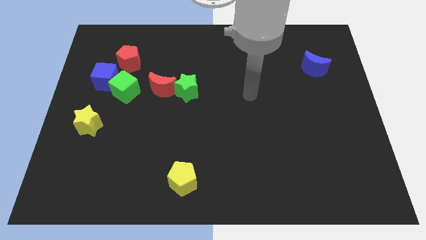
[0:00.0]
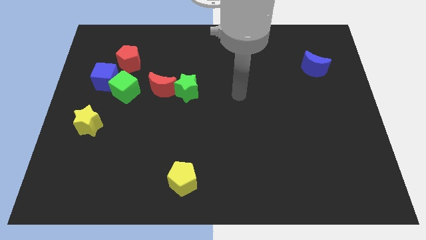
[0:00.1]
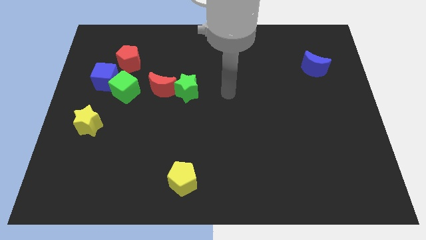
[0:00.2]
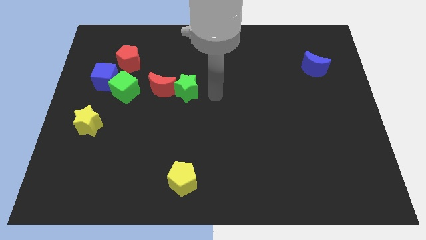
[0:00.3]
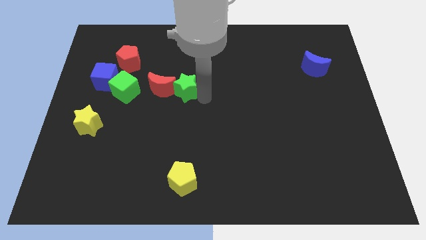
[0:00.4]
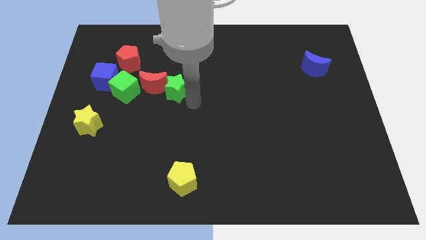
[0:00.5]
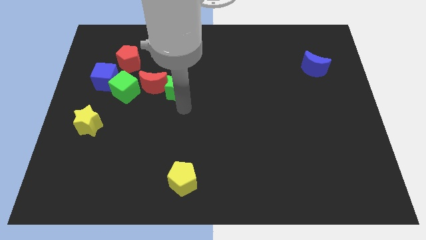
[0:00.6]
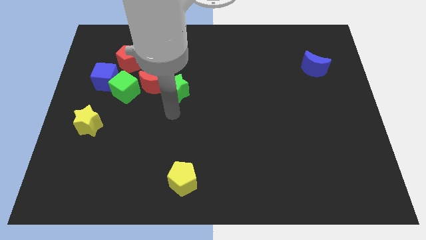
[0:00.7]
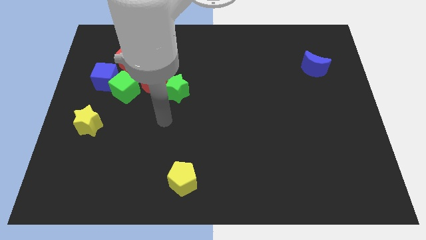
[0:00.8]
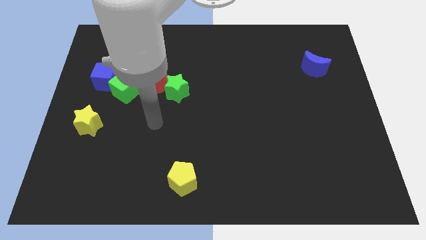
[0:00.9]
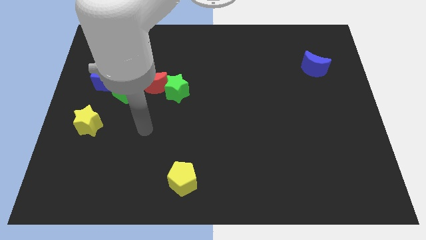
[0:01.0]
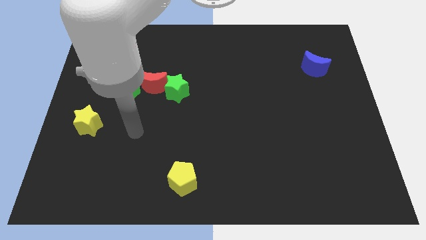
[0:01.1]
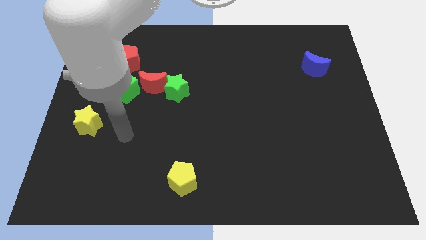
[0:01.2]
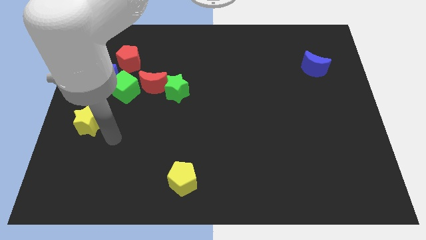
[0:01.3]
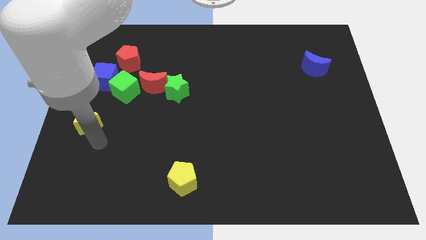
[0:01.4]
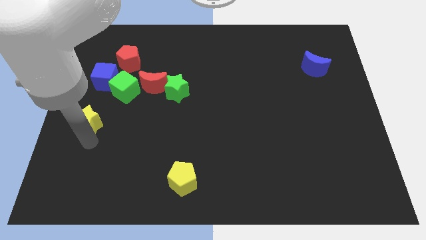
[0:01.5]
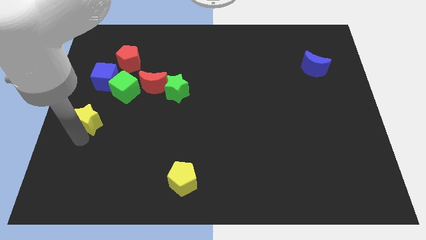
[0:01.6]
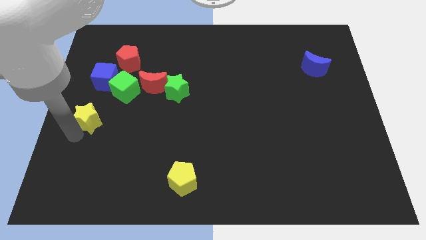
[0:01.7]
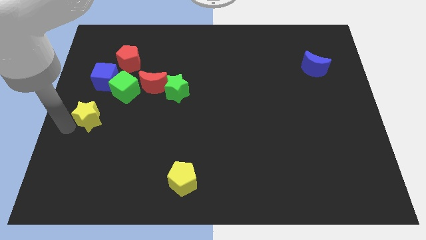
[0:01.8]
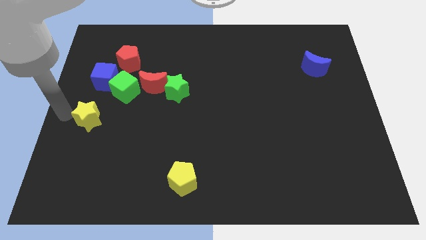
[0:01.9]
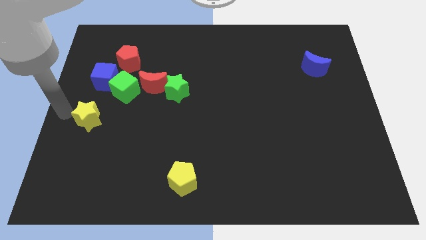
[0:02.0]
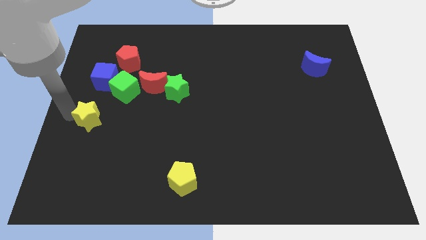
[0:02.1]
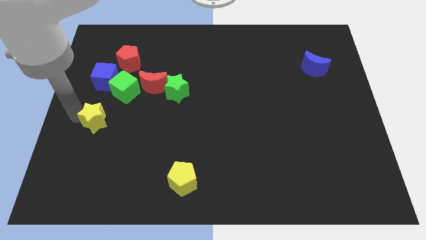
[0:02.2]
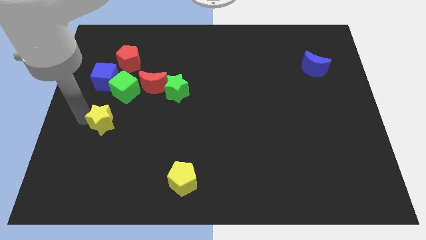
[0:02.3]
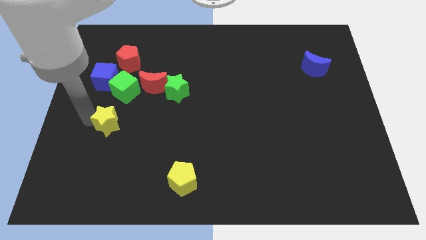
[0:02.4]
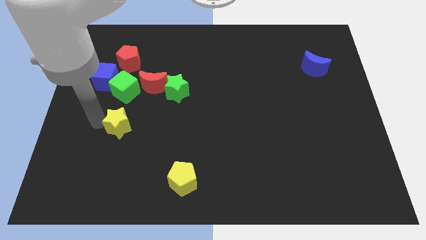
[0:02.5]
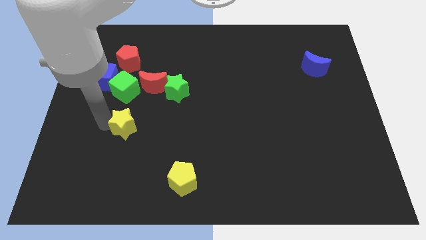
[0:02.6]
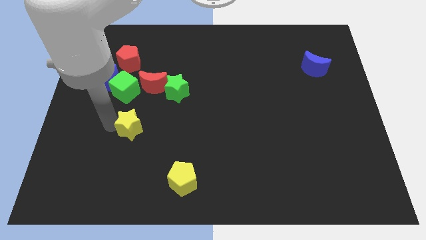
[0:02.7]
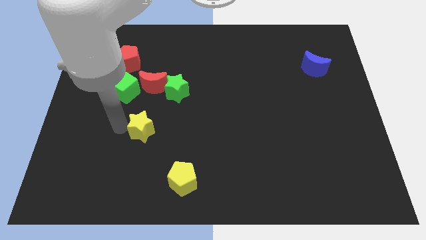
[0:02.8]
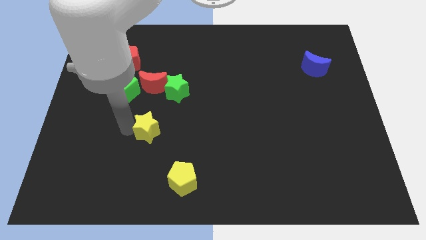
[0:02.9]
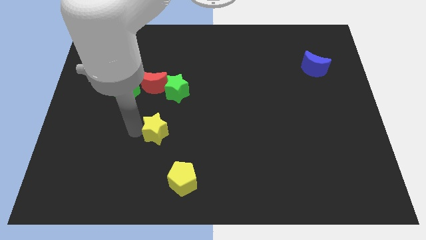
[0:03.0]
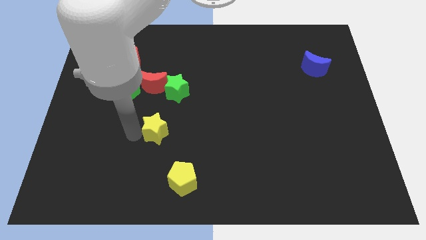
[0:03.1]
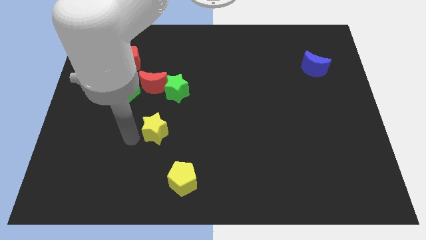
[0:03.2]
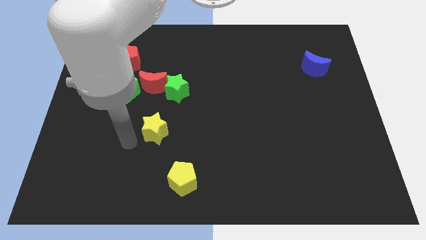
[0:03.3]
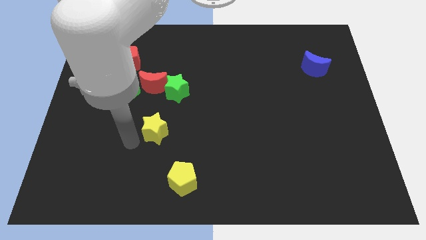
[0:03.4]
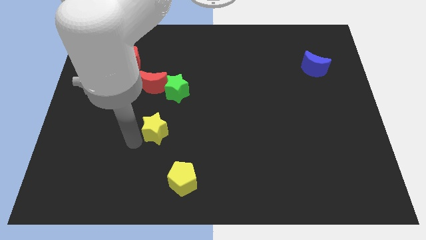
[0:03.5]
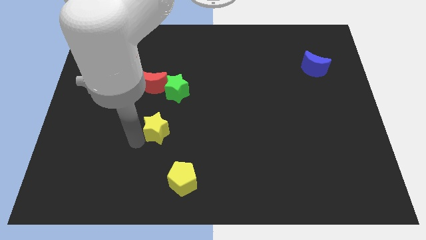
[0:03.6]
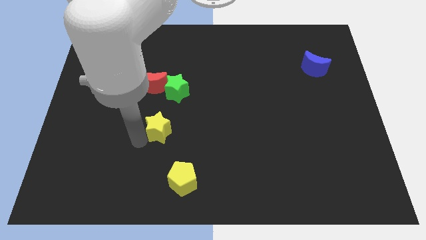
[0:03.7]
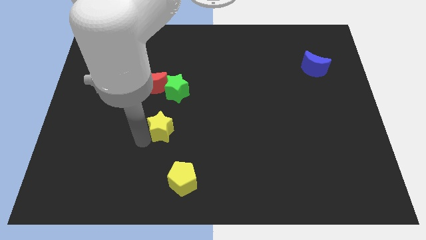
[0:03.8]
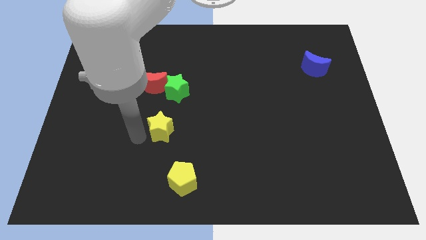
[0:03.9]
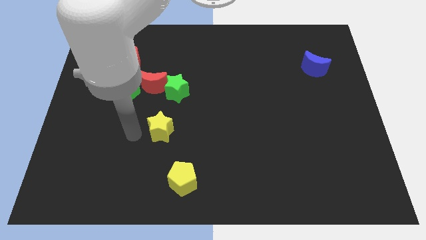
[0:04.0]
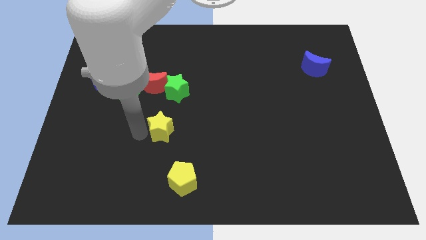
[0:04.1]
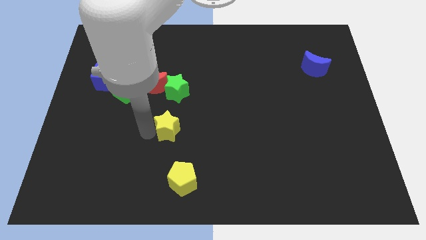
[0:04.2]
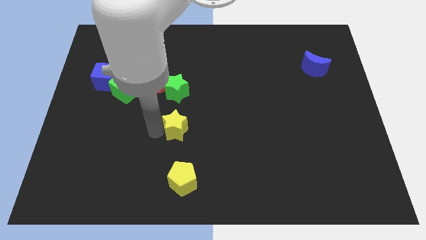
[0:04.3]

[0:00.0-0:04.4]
slide the yellow star right

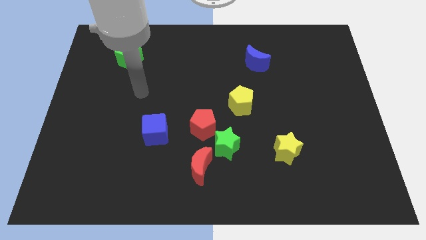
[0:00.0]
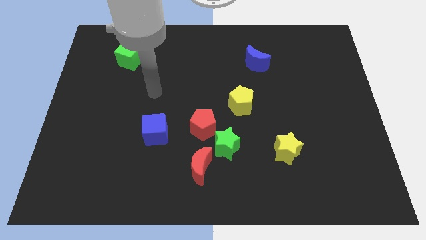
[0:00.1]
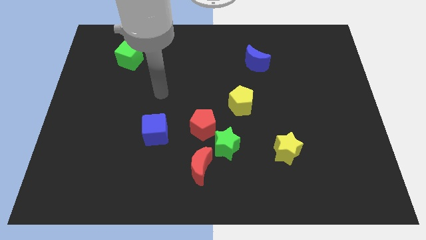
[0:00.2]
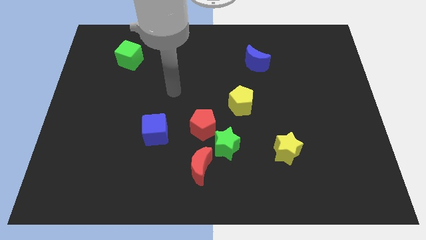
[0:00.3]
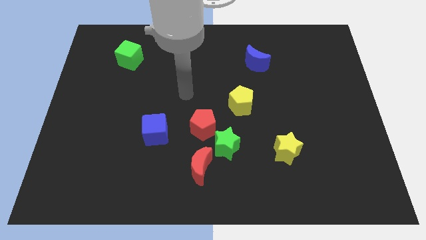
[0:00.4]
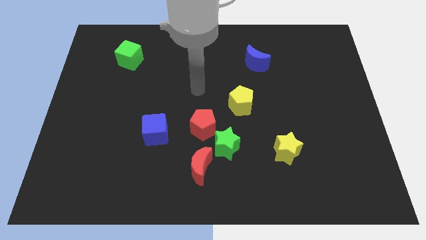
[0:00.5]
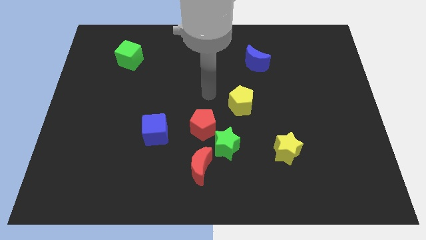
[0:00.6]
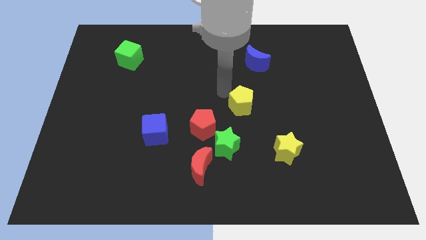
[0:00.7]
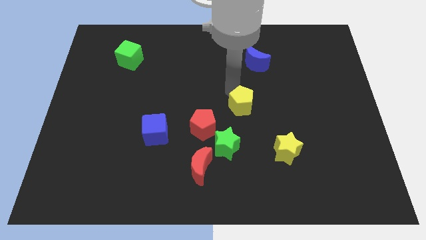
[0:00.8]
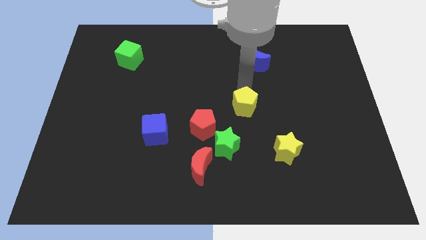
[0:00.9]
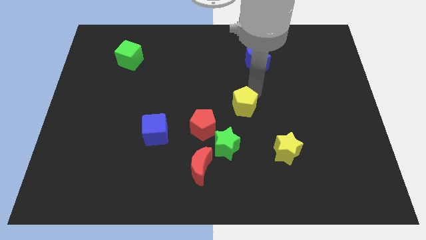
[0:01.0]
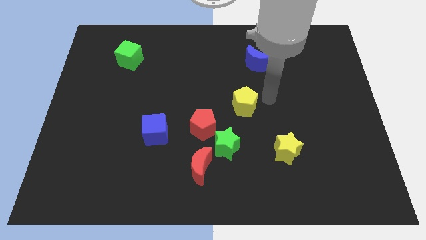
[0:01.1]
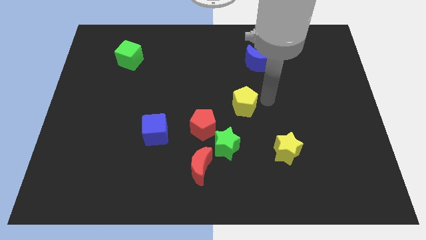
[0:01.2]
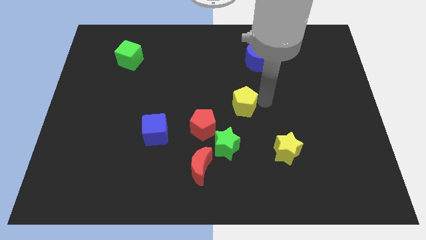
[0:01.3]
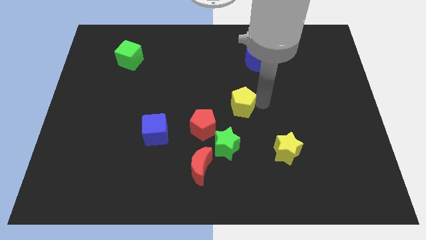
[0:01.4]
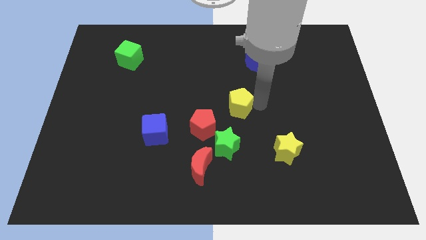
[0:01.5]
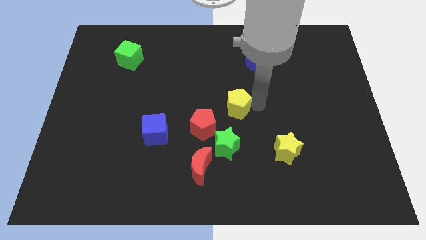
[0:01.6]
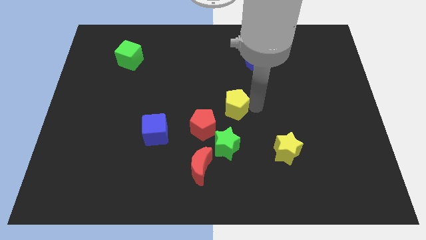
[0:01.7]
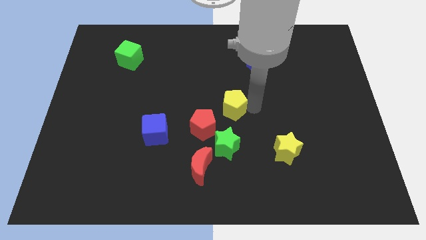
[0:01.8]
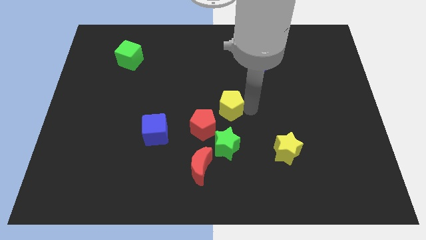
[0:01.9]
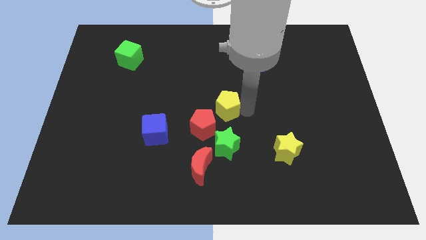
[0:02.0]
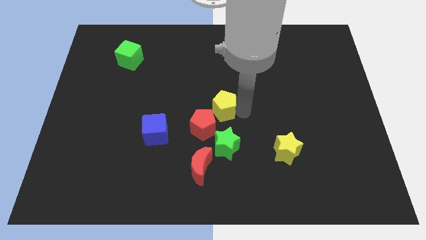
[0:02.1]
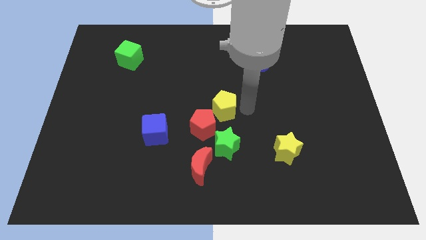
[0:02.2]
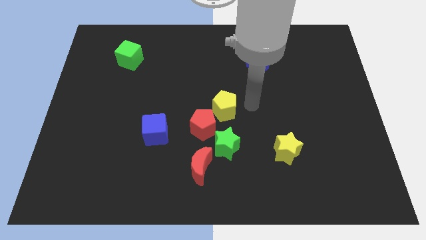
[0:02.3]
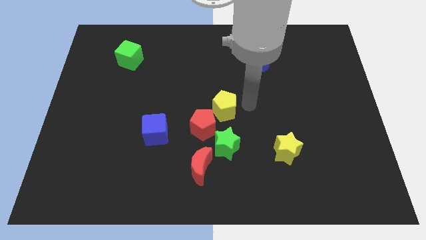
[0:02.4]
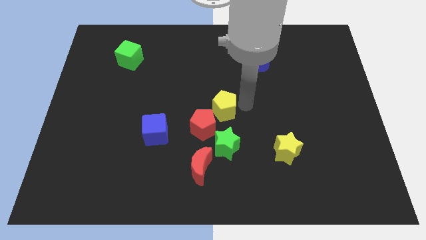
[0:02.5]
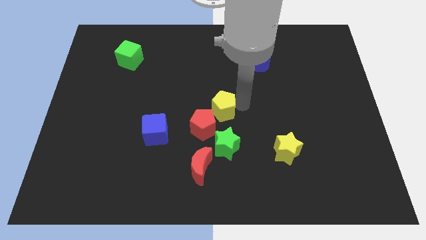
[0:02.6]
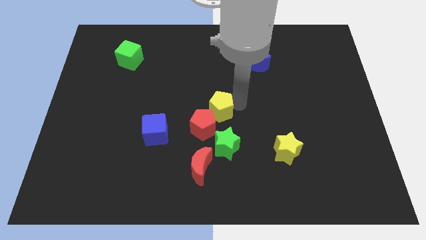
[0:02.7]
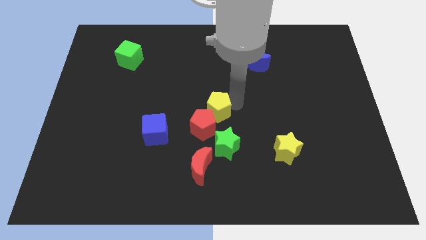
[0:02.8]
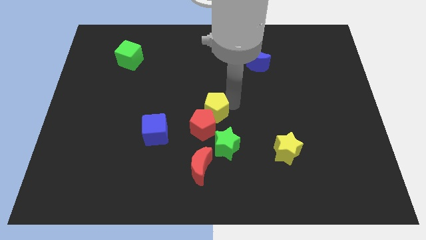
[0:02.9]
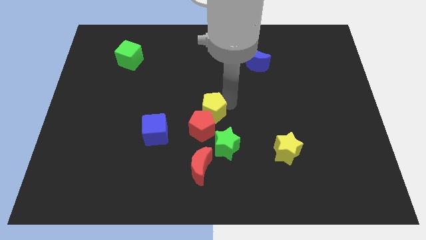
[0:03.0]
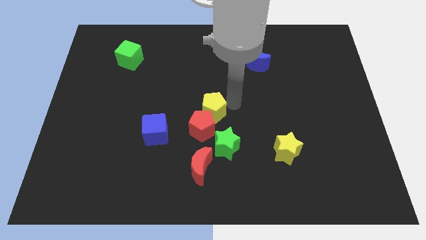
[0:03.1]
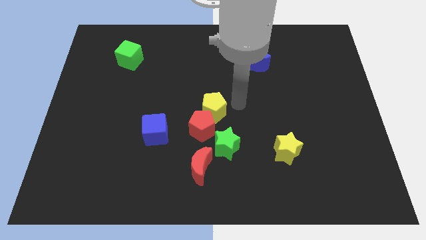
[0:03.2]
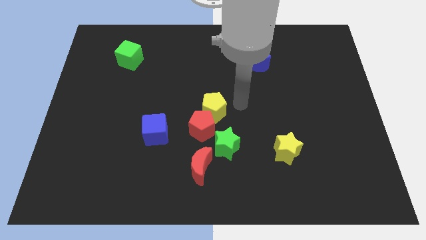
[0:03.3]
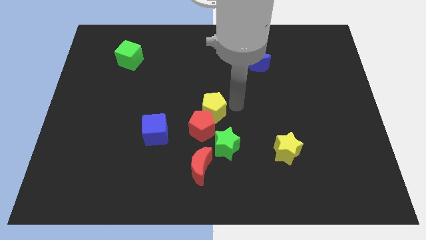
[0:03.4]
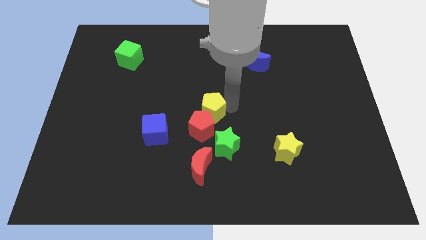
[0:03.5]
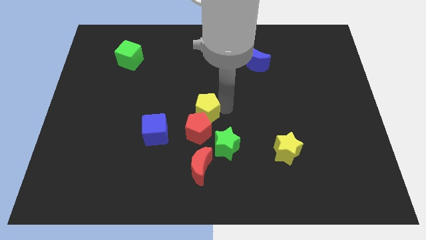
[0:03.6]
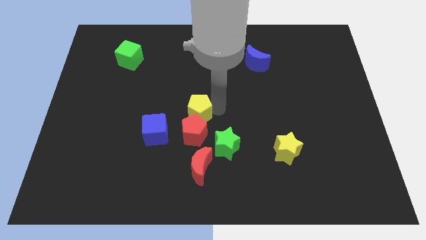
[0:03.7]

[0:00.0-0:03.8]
move the yellow pentagon slightly down and then to the left
